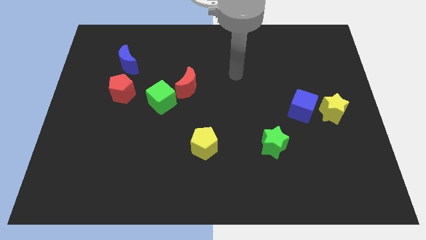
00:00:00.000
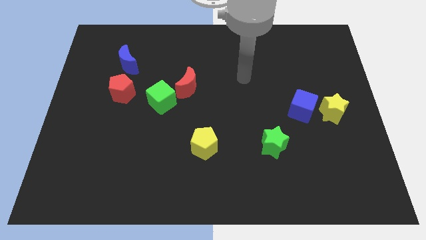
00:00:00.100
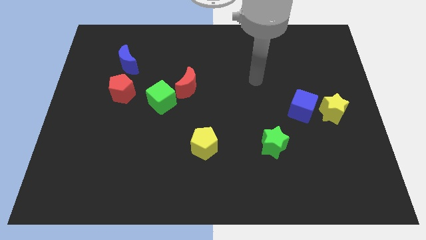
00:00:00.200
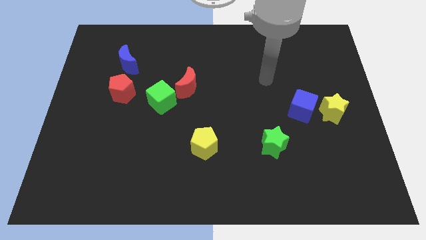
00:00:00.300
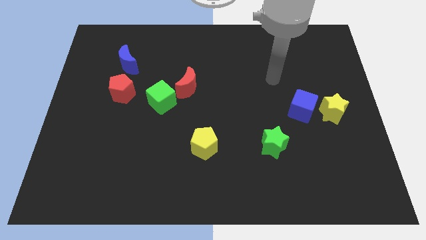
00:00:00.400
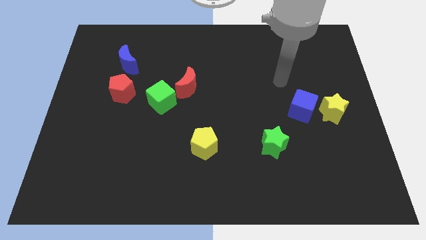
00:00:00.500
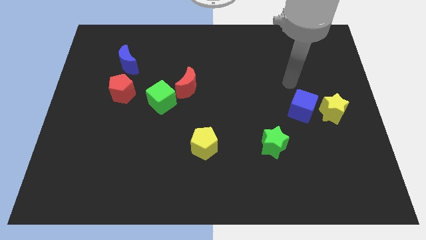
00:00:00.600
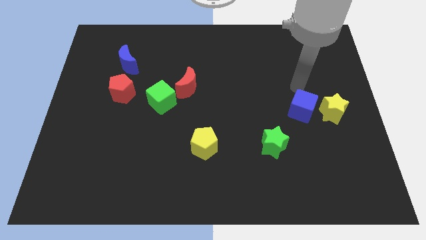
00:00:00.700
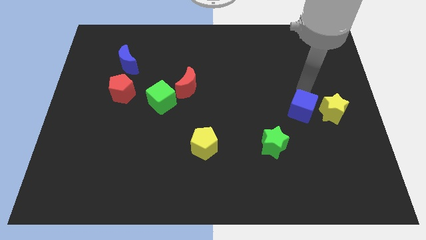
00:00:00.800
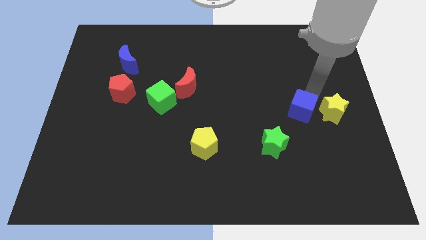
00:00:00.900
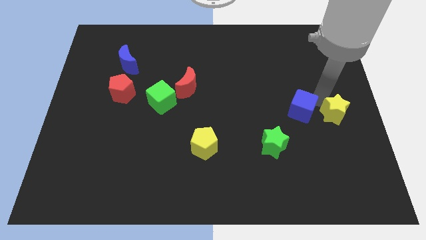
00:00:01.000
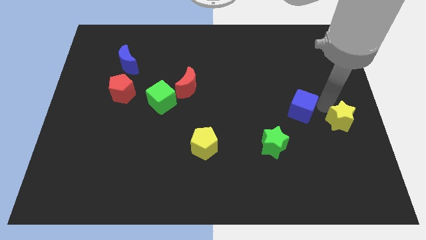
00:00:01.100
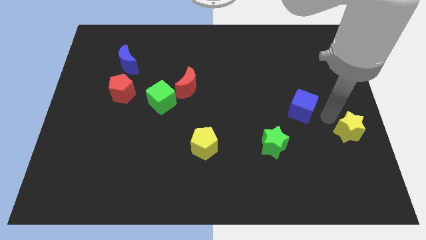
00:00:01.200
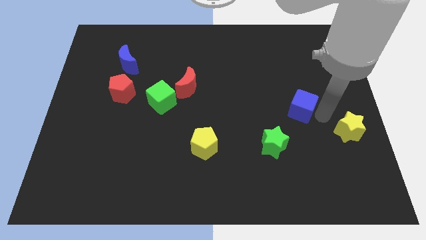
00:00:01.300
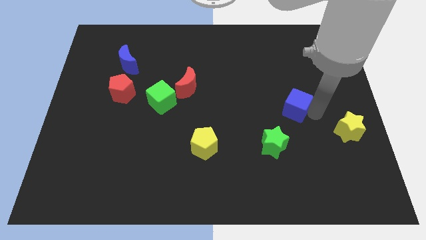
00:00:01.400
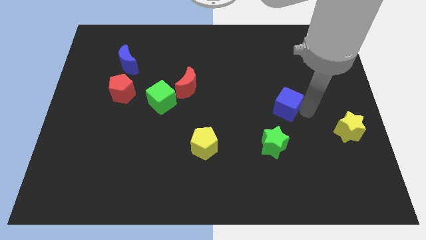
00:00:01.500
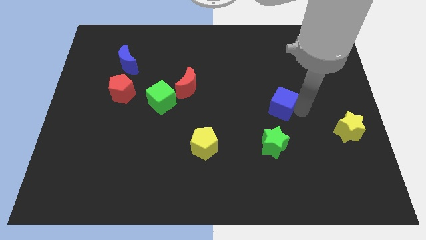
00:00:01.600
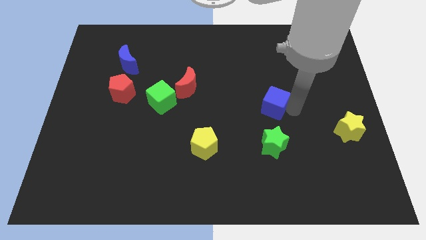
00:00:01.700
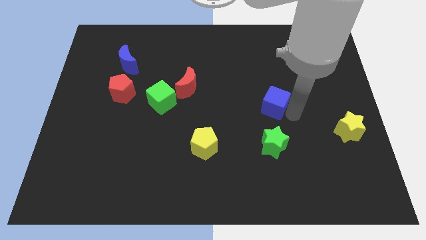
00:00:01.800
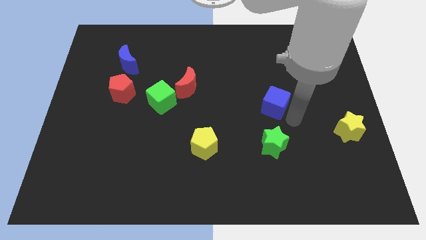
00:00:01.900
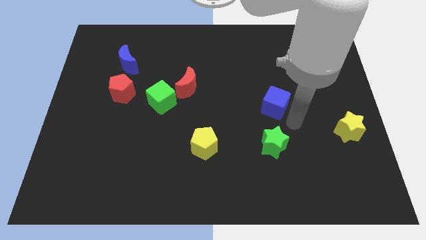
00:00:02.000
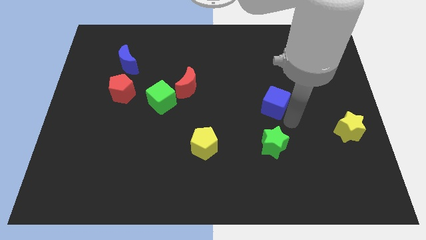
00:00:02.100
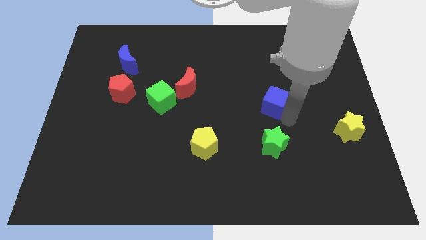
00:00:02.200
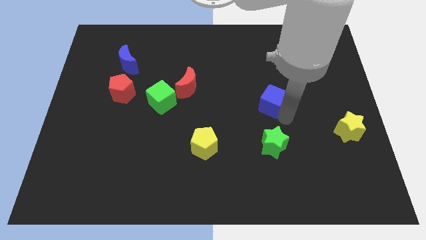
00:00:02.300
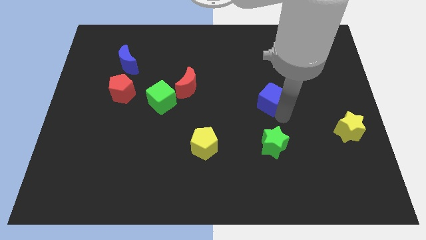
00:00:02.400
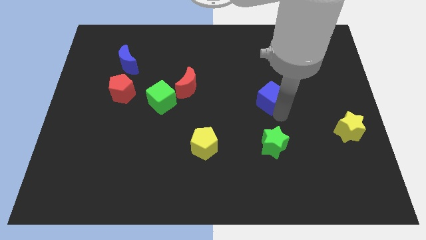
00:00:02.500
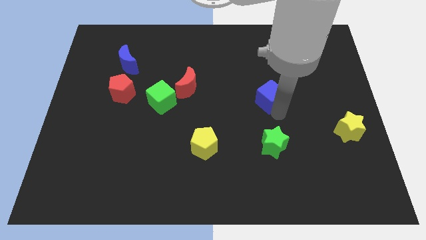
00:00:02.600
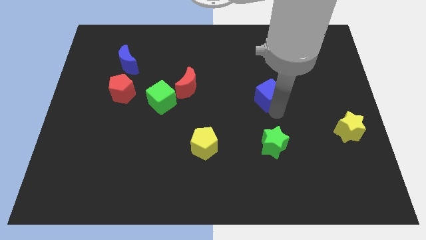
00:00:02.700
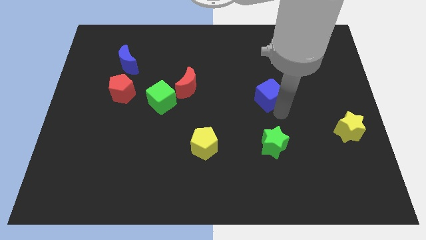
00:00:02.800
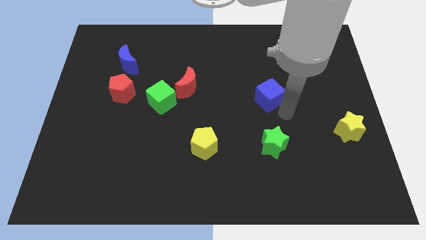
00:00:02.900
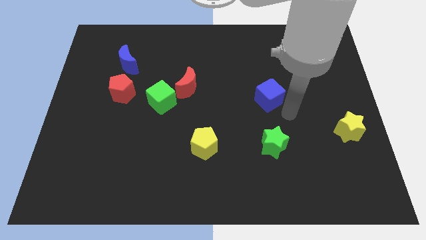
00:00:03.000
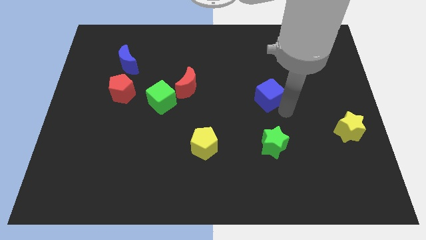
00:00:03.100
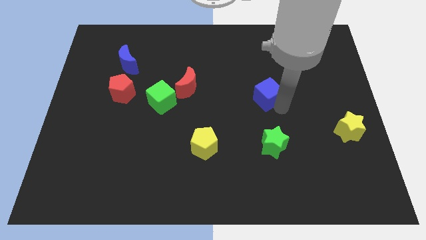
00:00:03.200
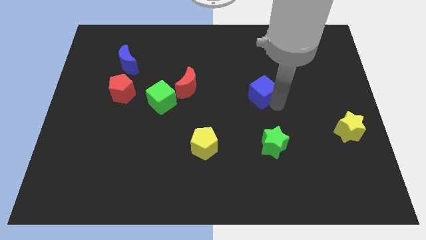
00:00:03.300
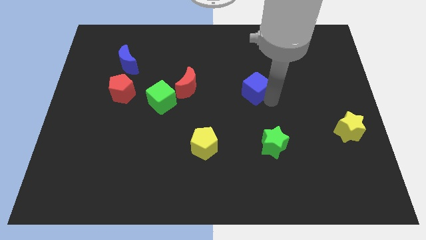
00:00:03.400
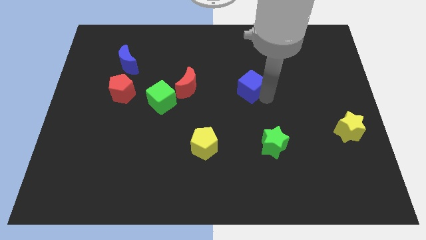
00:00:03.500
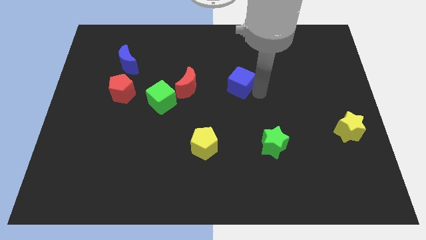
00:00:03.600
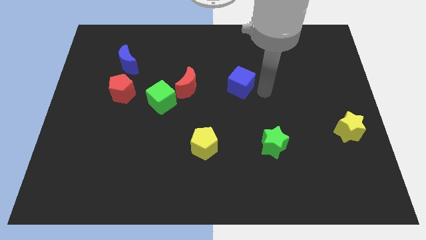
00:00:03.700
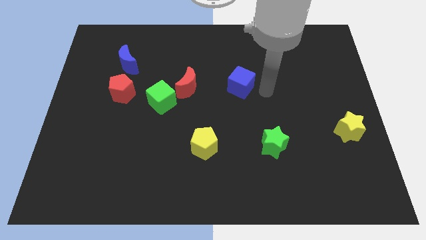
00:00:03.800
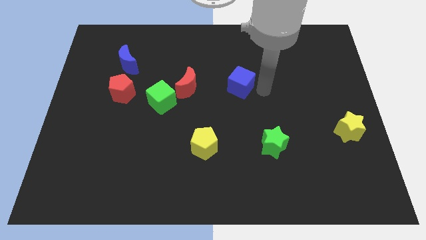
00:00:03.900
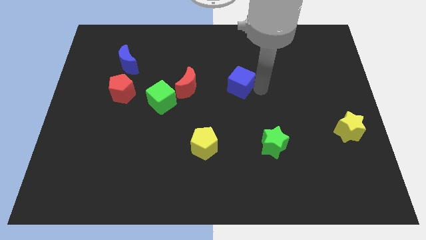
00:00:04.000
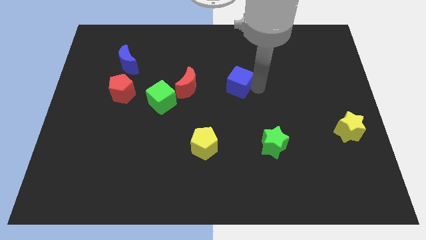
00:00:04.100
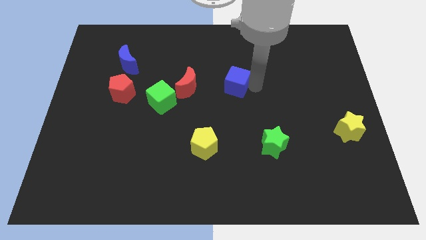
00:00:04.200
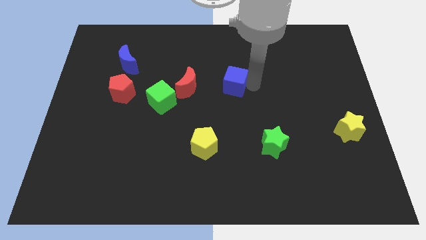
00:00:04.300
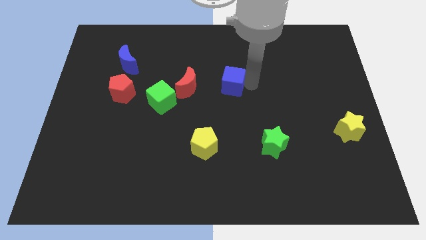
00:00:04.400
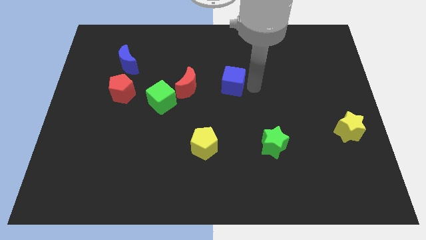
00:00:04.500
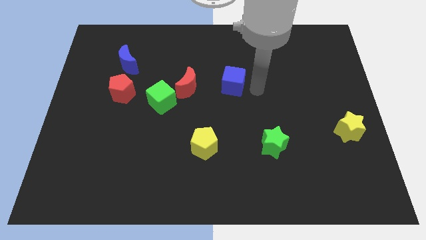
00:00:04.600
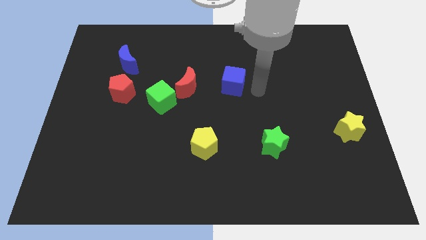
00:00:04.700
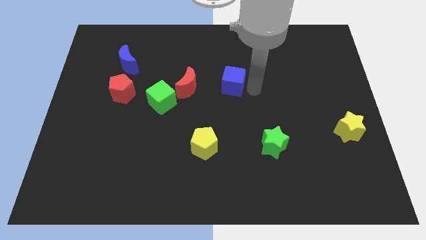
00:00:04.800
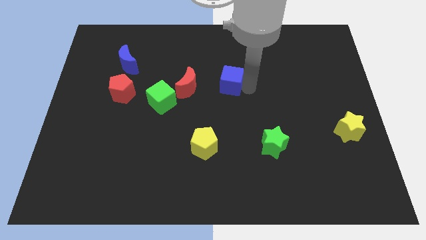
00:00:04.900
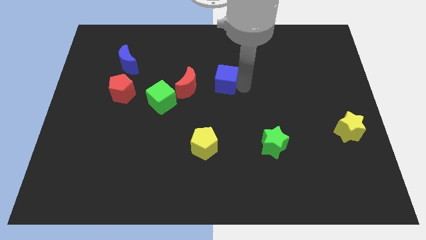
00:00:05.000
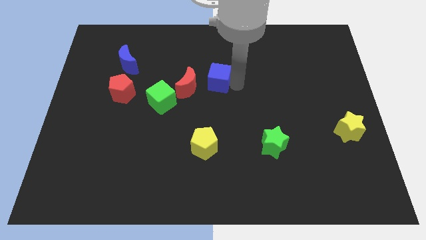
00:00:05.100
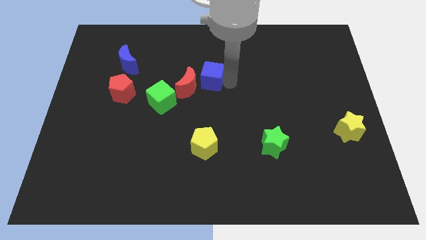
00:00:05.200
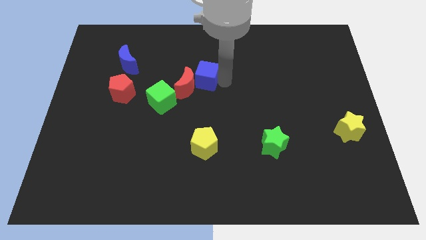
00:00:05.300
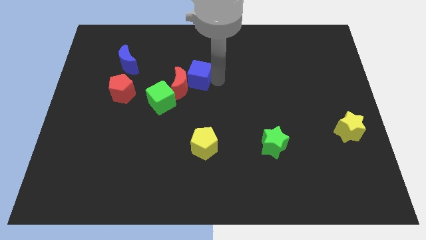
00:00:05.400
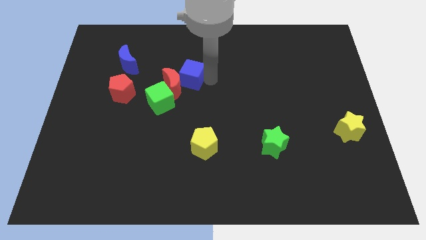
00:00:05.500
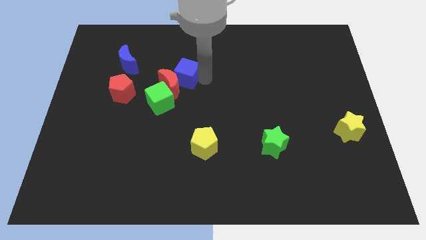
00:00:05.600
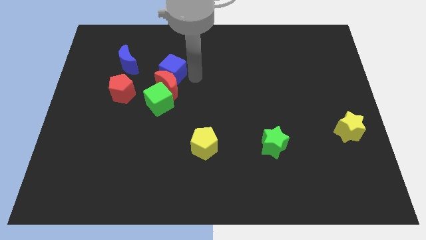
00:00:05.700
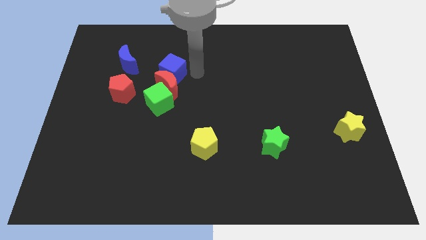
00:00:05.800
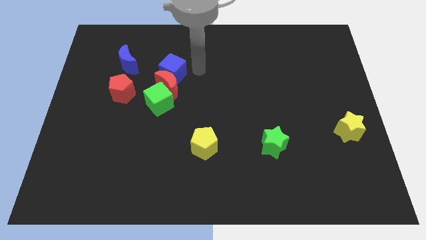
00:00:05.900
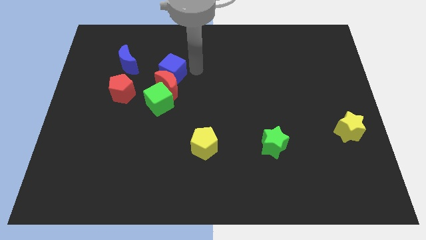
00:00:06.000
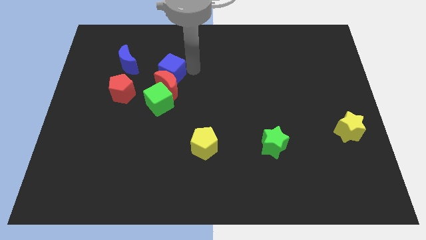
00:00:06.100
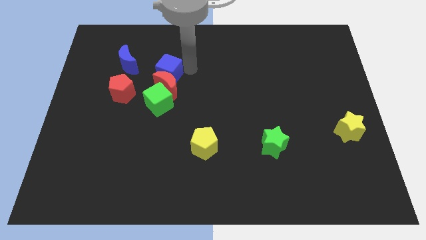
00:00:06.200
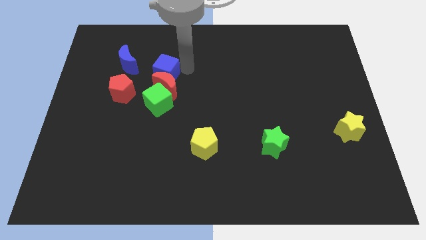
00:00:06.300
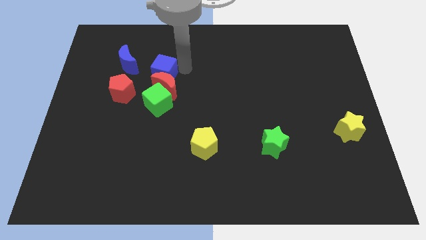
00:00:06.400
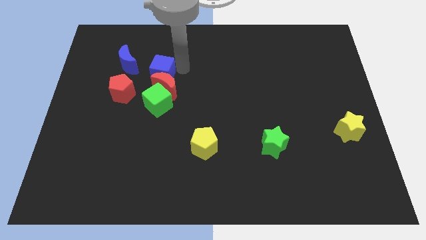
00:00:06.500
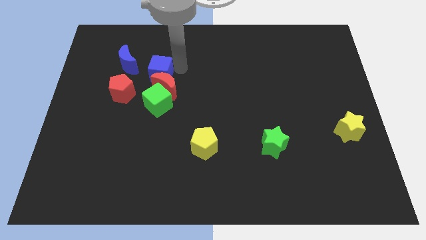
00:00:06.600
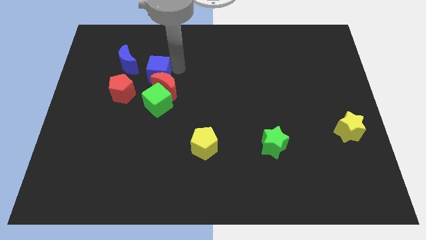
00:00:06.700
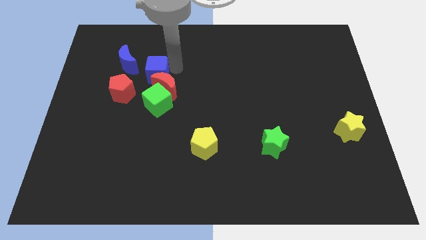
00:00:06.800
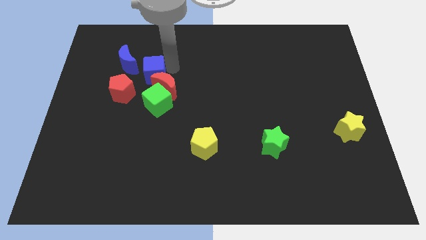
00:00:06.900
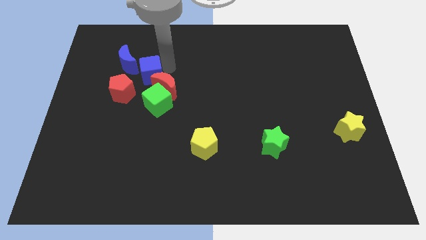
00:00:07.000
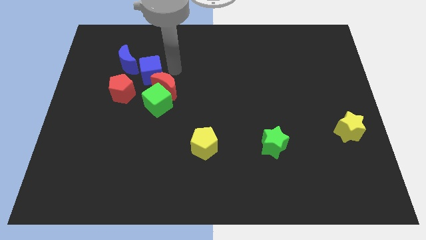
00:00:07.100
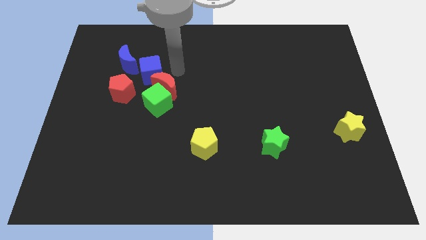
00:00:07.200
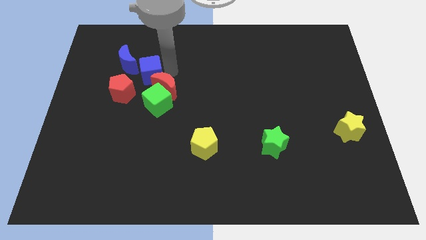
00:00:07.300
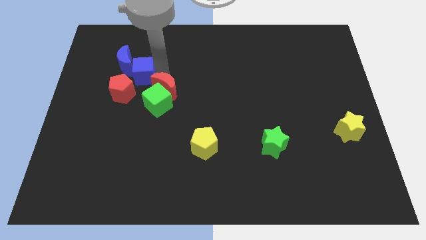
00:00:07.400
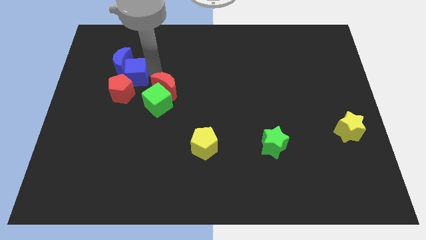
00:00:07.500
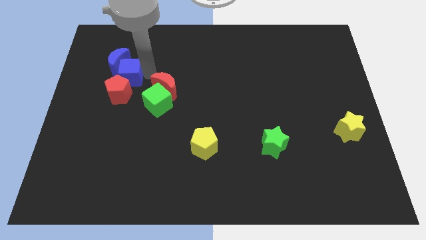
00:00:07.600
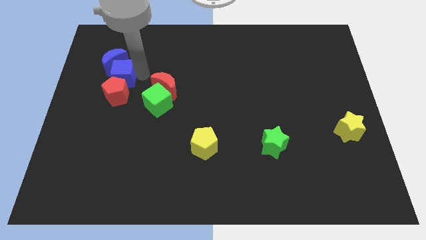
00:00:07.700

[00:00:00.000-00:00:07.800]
put the blue cube to the top left of the red pentagon
